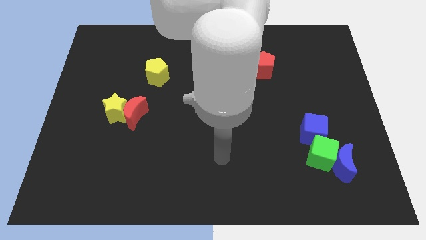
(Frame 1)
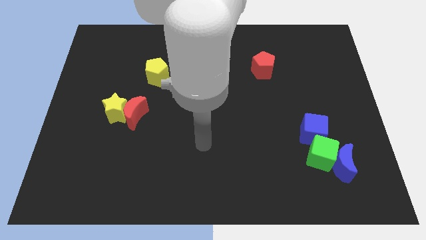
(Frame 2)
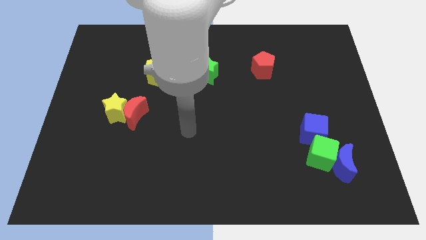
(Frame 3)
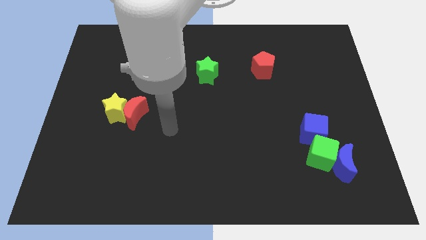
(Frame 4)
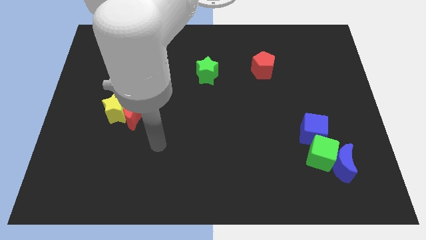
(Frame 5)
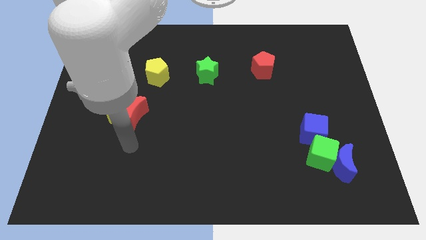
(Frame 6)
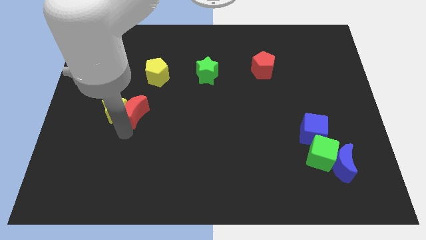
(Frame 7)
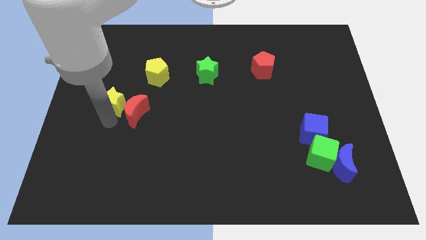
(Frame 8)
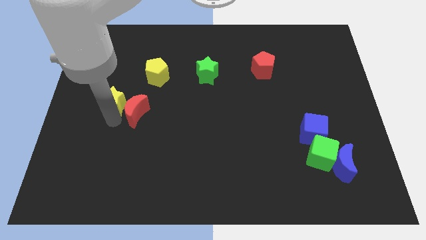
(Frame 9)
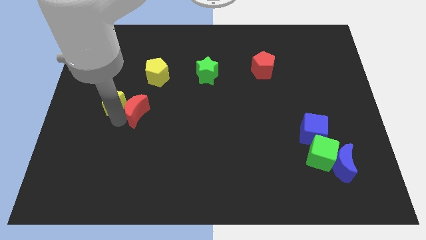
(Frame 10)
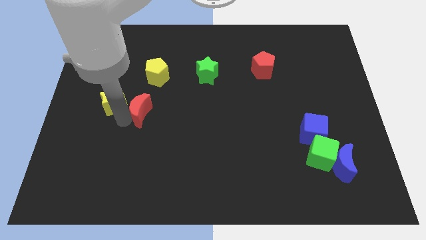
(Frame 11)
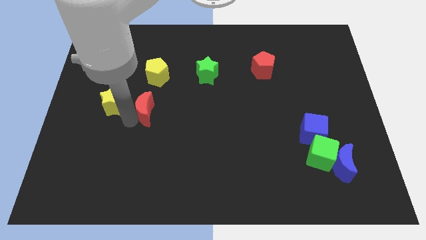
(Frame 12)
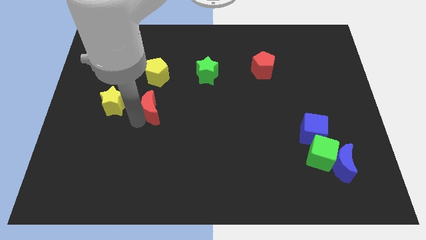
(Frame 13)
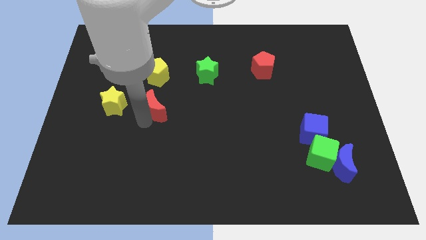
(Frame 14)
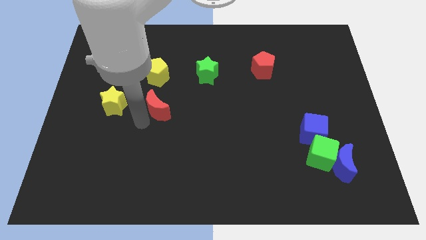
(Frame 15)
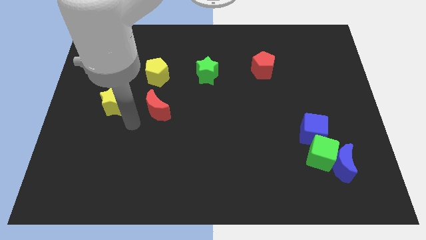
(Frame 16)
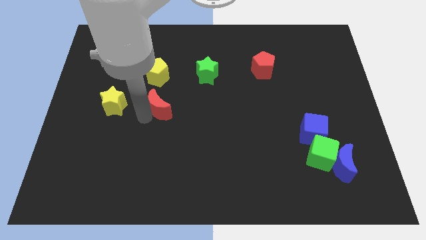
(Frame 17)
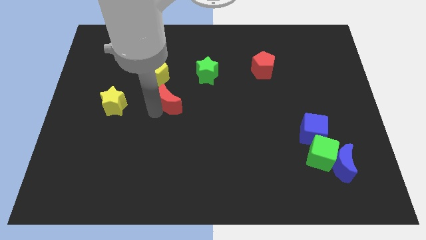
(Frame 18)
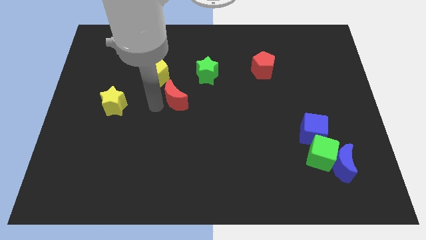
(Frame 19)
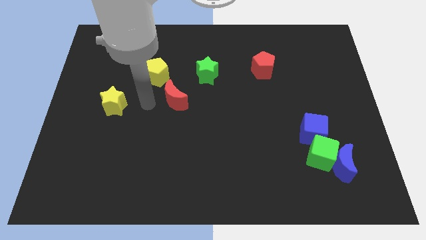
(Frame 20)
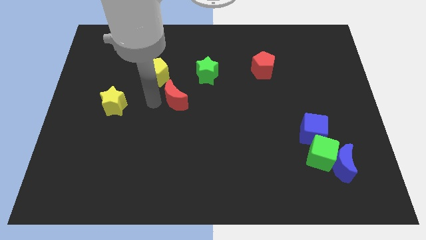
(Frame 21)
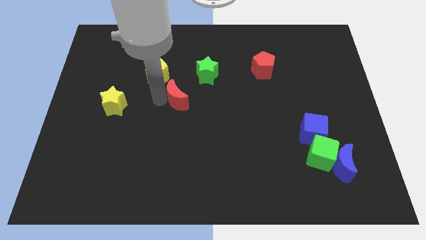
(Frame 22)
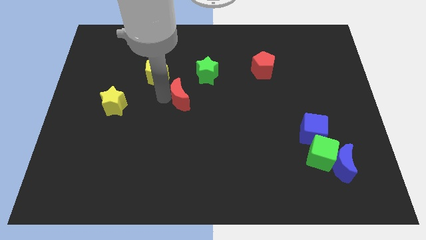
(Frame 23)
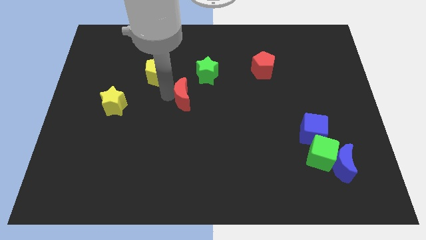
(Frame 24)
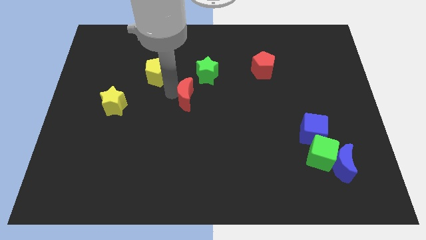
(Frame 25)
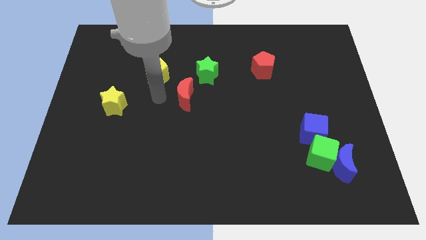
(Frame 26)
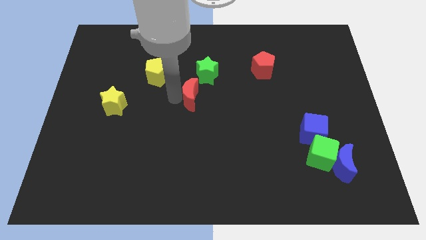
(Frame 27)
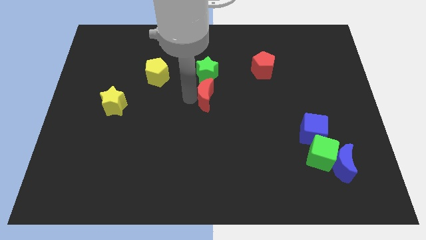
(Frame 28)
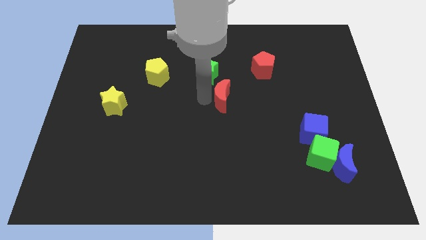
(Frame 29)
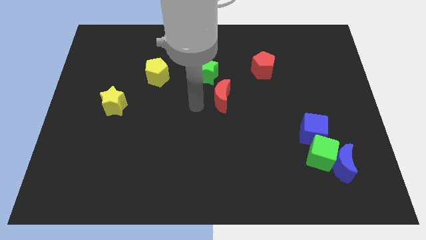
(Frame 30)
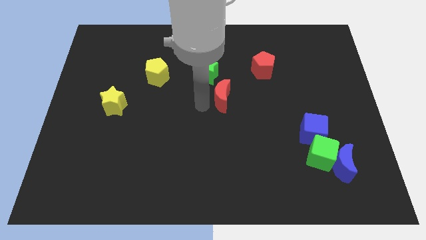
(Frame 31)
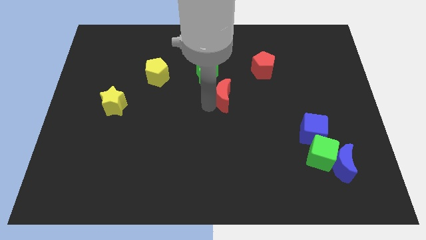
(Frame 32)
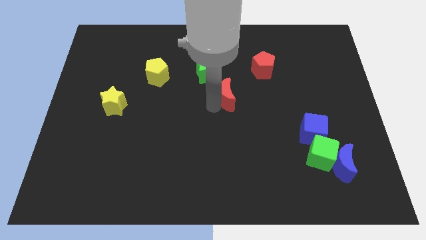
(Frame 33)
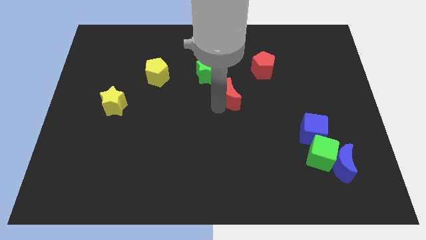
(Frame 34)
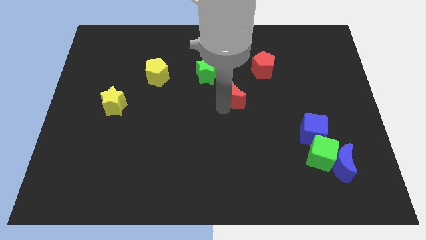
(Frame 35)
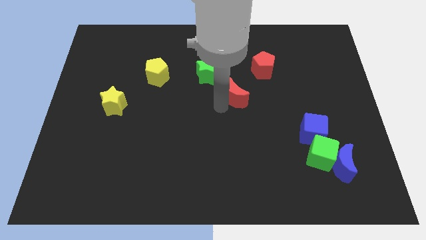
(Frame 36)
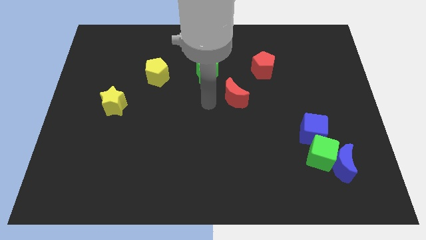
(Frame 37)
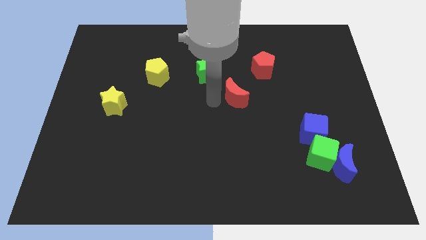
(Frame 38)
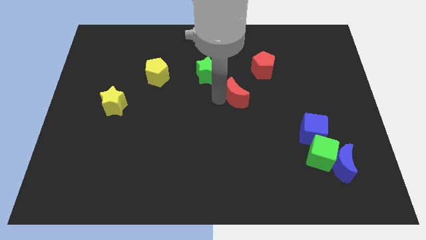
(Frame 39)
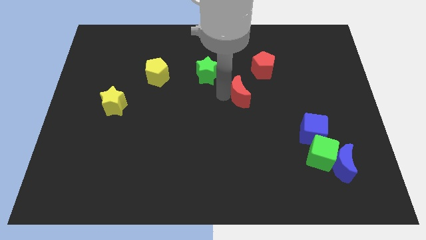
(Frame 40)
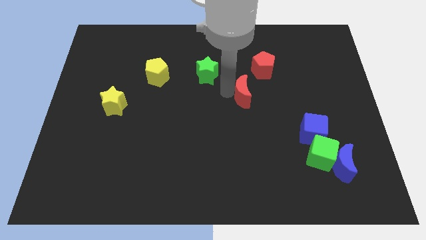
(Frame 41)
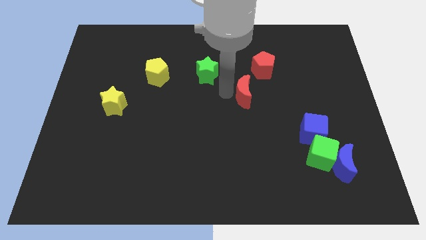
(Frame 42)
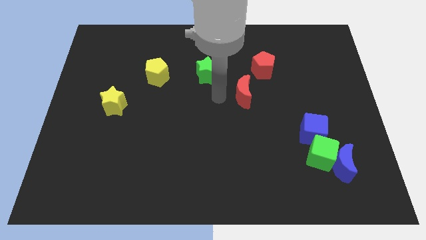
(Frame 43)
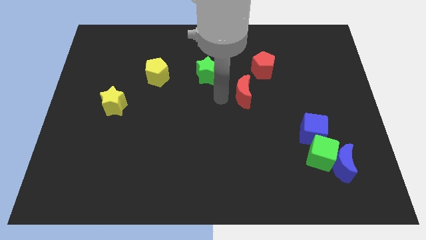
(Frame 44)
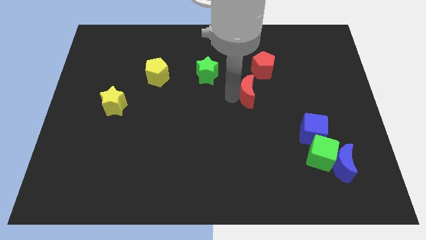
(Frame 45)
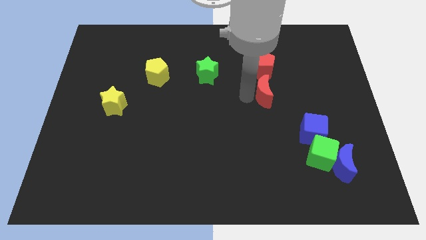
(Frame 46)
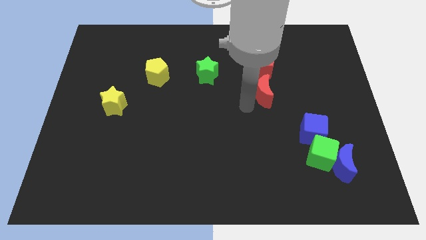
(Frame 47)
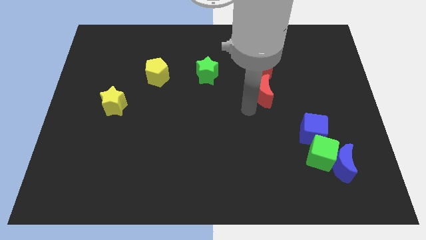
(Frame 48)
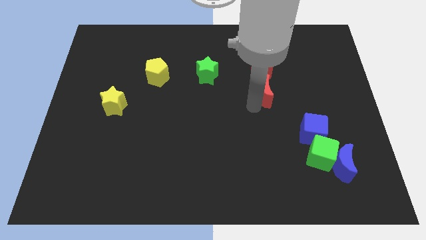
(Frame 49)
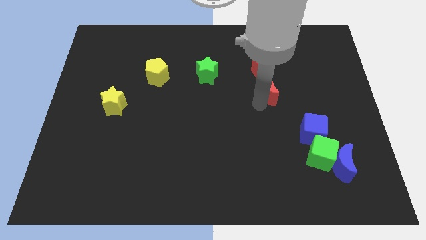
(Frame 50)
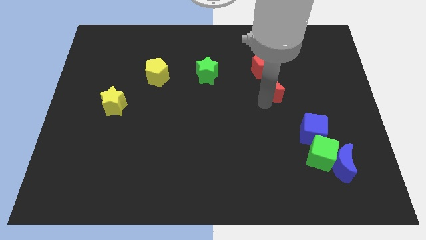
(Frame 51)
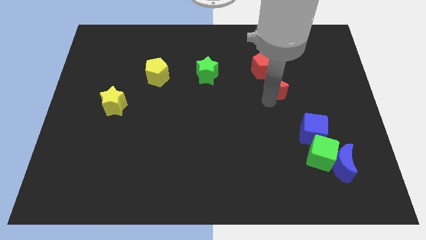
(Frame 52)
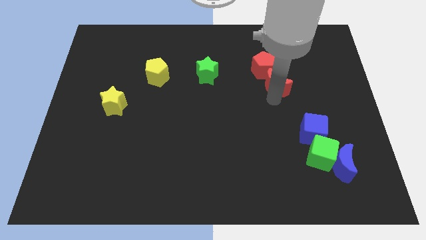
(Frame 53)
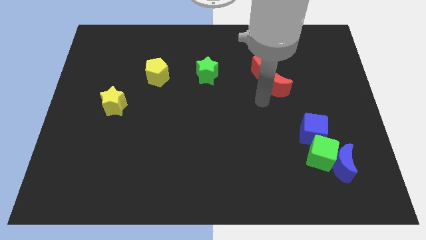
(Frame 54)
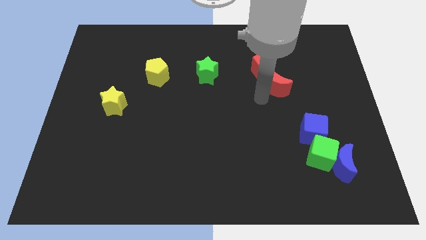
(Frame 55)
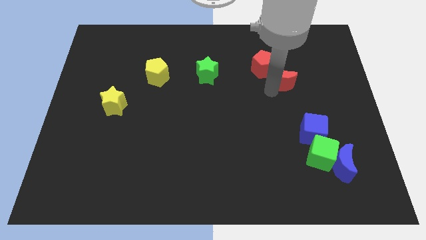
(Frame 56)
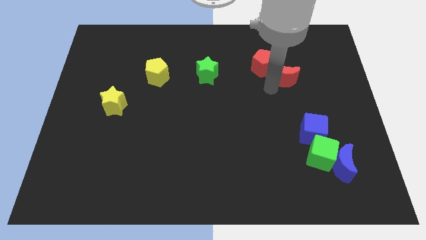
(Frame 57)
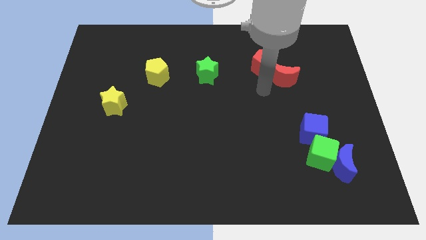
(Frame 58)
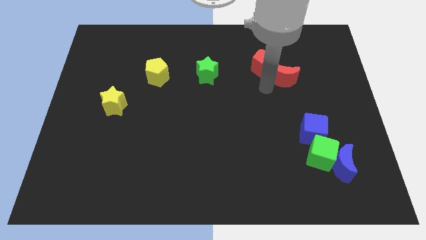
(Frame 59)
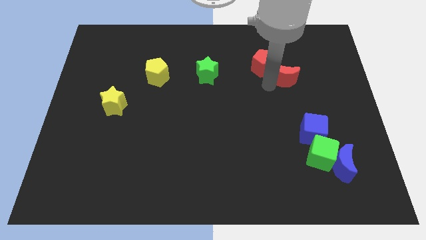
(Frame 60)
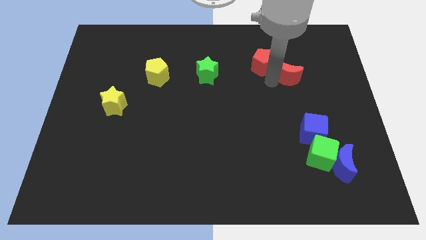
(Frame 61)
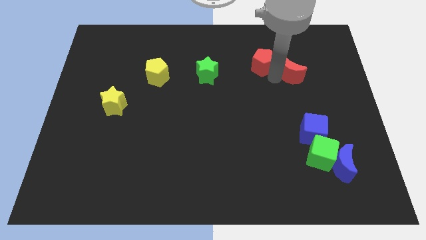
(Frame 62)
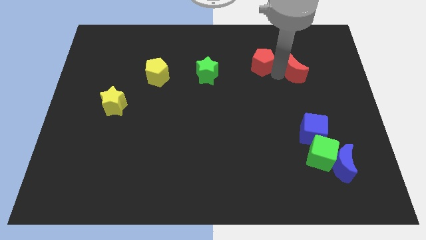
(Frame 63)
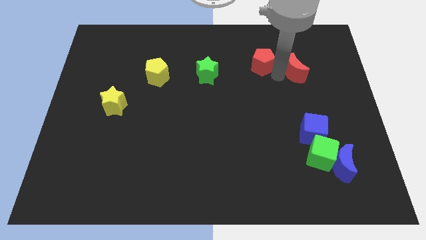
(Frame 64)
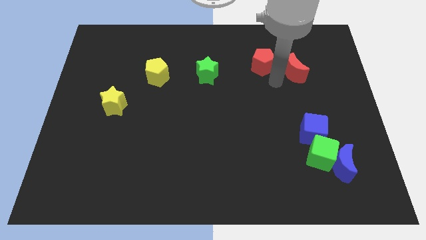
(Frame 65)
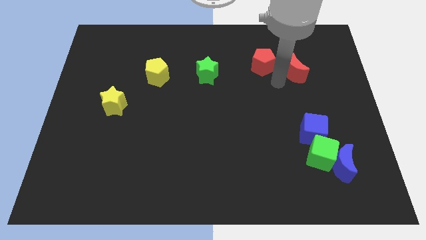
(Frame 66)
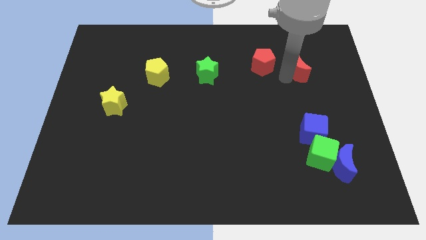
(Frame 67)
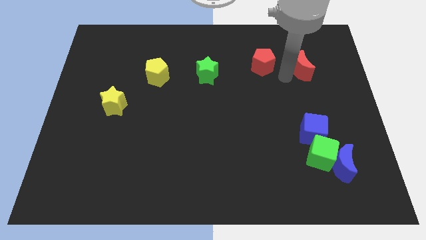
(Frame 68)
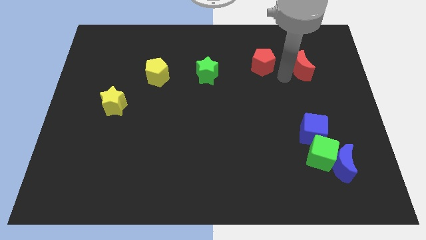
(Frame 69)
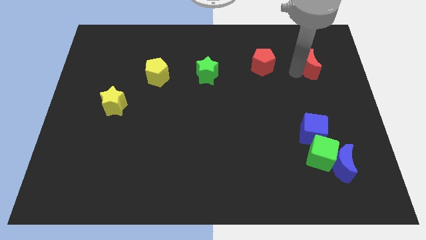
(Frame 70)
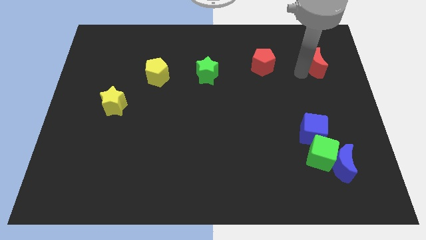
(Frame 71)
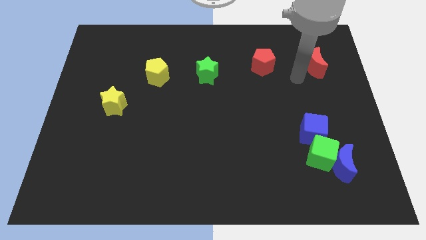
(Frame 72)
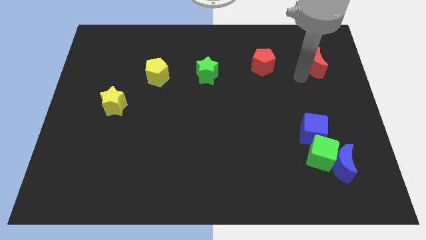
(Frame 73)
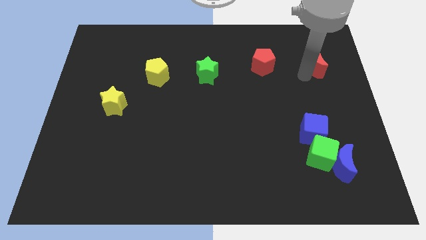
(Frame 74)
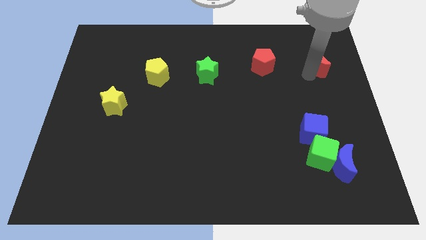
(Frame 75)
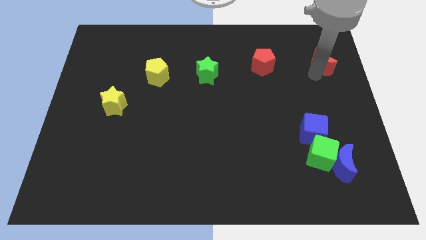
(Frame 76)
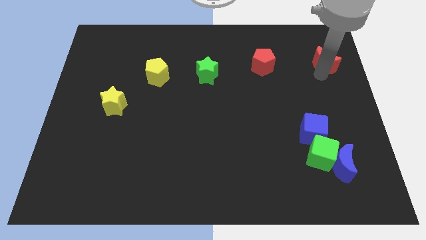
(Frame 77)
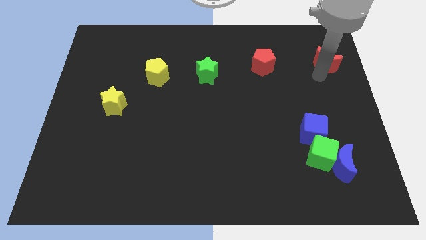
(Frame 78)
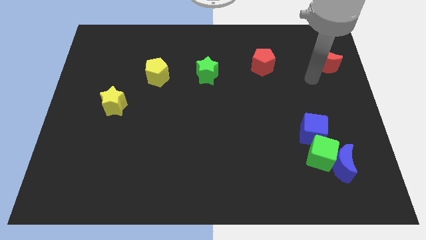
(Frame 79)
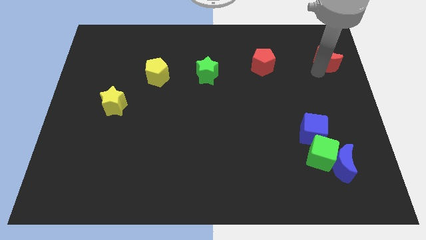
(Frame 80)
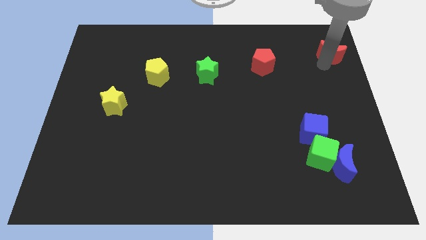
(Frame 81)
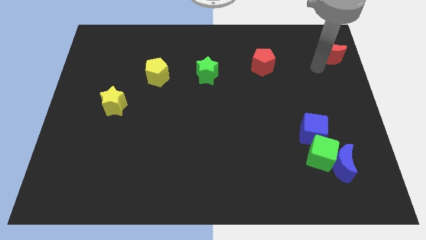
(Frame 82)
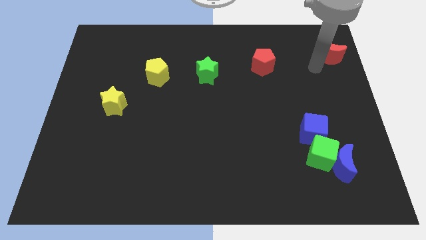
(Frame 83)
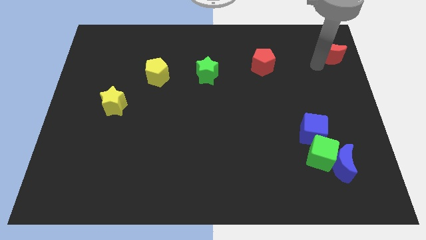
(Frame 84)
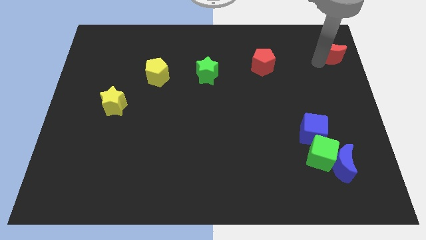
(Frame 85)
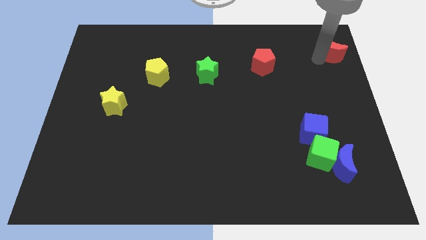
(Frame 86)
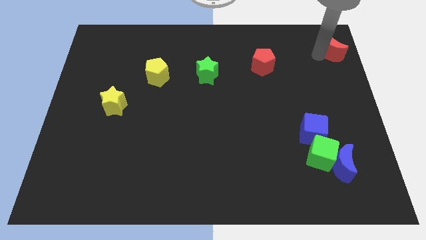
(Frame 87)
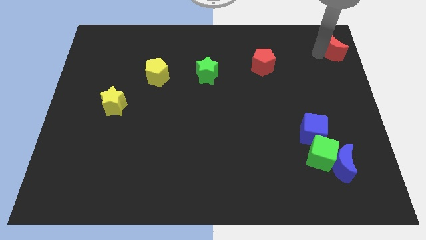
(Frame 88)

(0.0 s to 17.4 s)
put the red moon to the upper right corner
